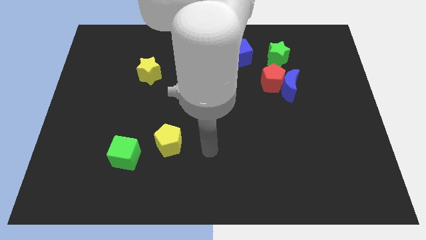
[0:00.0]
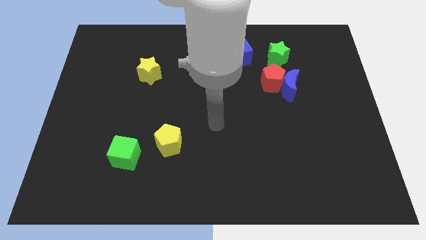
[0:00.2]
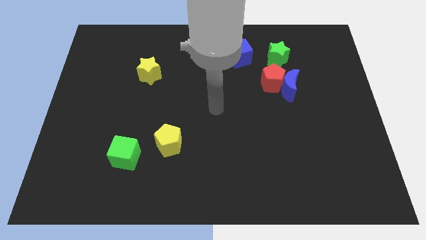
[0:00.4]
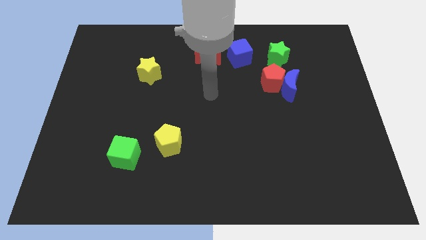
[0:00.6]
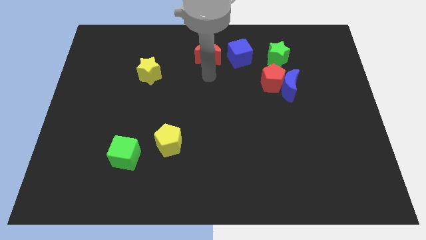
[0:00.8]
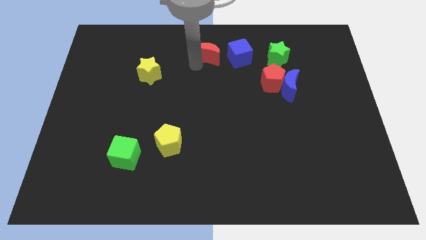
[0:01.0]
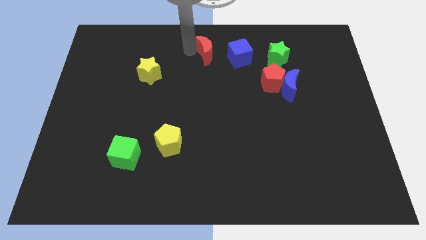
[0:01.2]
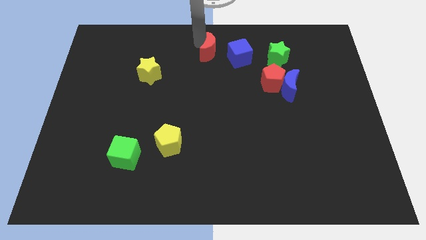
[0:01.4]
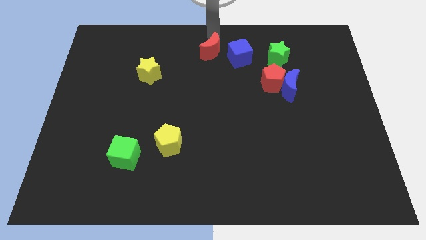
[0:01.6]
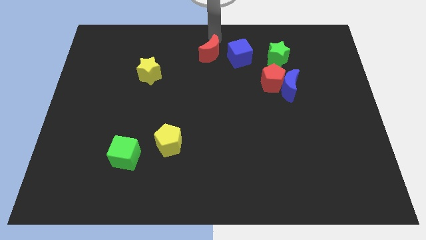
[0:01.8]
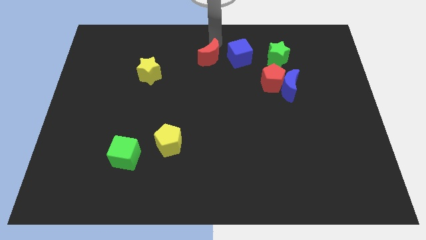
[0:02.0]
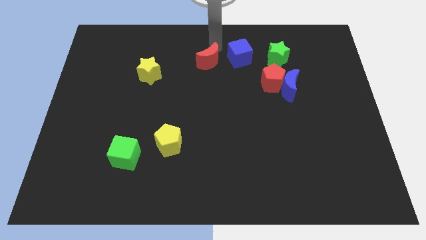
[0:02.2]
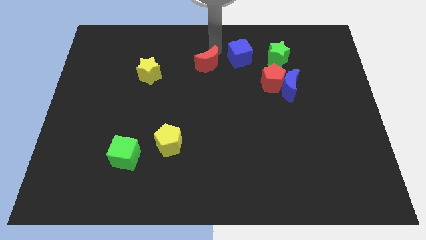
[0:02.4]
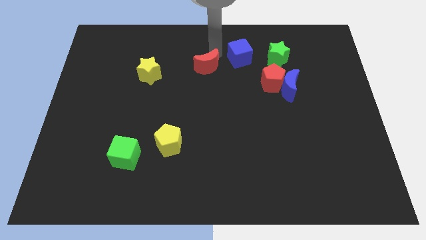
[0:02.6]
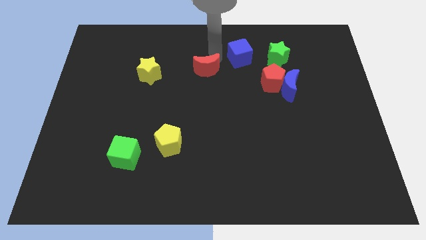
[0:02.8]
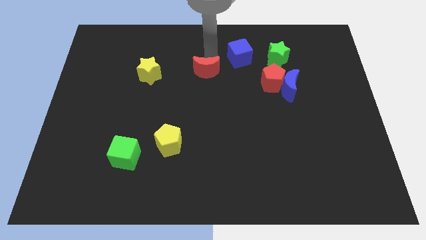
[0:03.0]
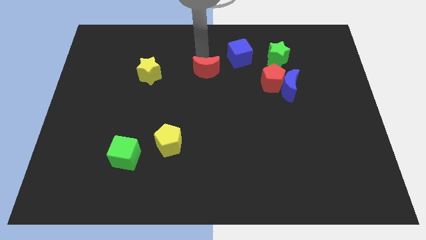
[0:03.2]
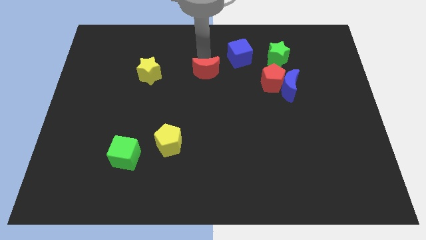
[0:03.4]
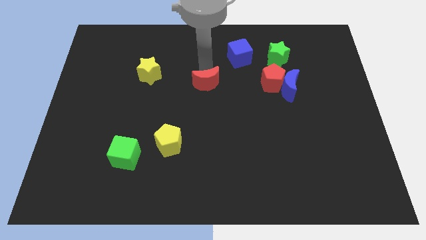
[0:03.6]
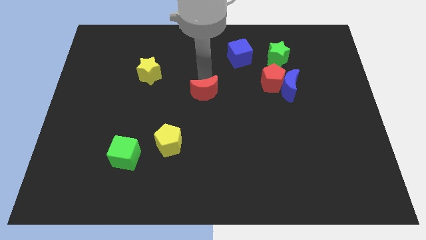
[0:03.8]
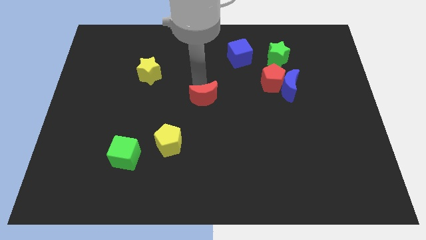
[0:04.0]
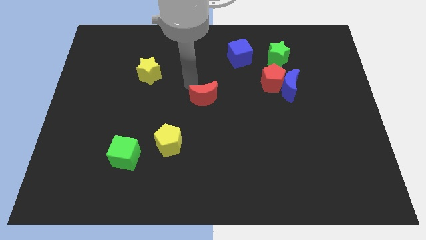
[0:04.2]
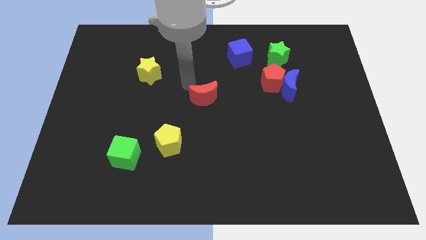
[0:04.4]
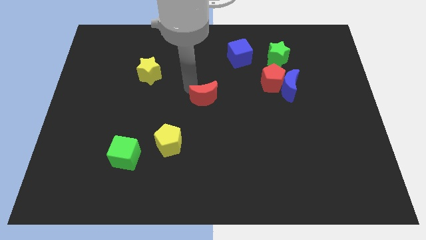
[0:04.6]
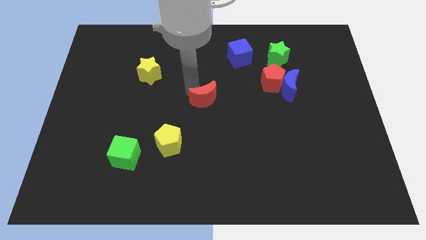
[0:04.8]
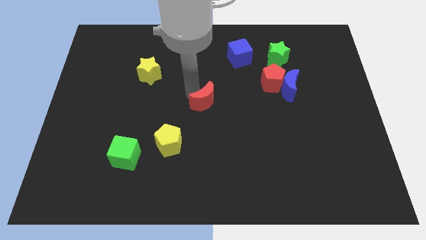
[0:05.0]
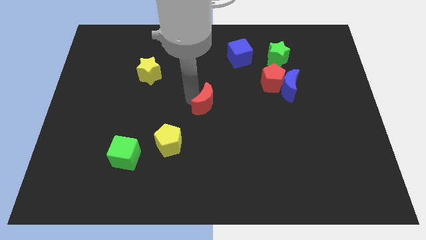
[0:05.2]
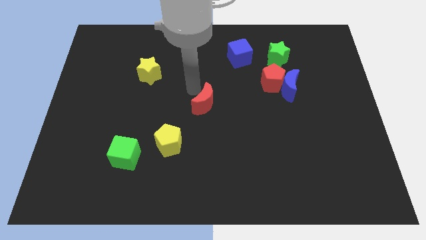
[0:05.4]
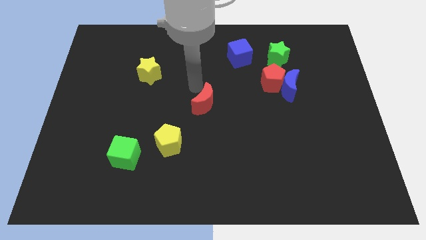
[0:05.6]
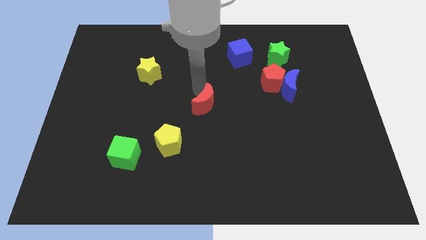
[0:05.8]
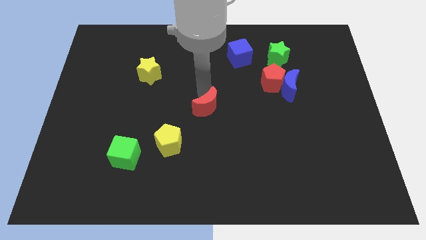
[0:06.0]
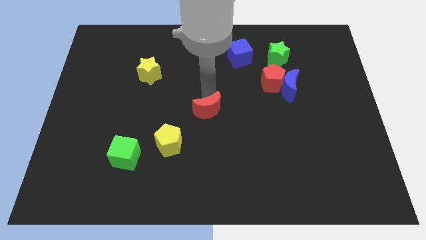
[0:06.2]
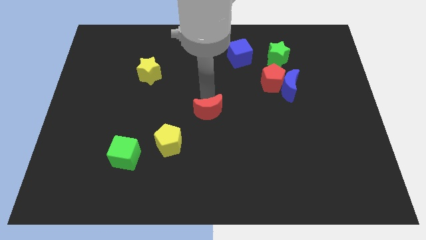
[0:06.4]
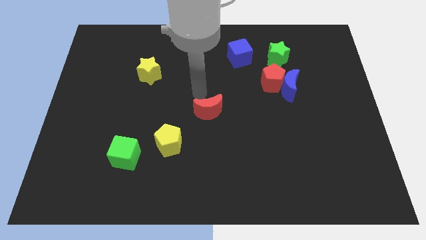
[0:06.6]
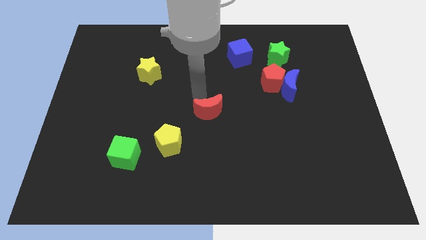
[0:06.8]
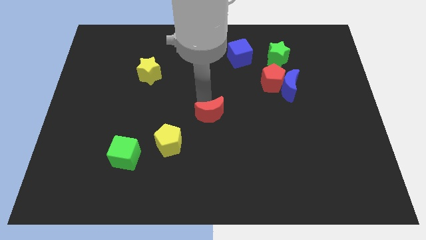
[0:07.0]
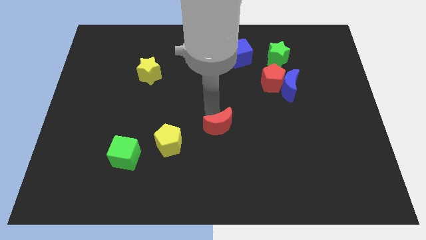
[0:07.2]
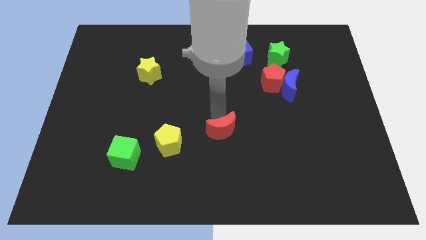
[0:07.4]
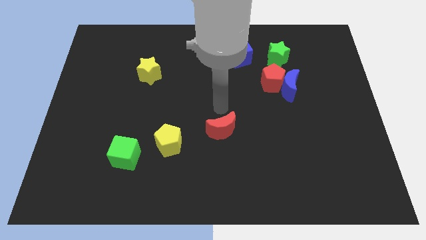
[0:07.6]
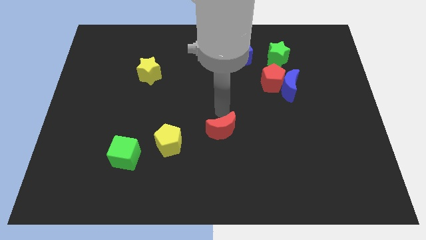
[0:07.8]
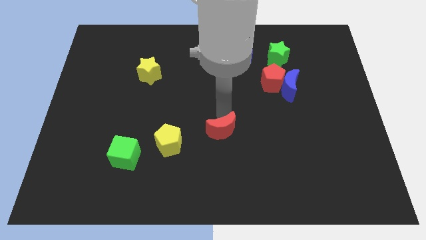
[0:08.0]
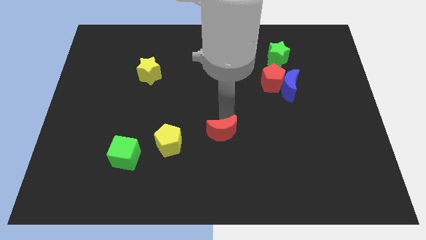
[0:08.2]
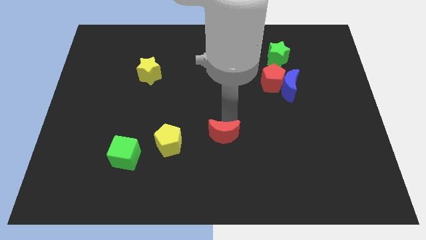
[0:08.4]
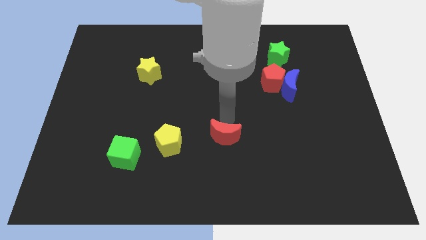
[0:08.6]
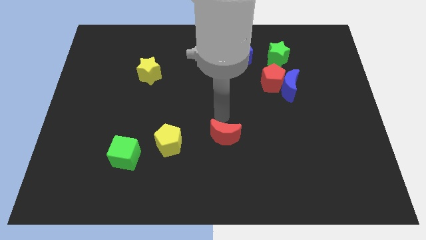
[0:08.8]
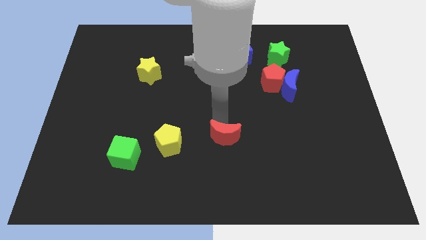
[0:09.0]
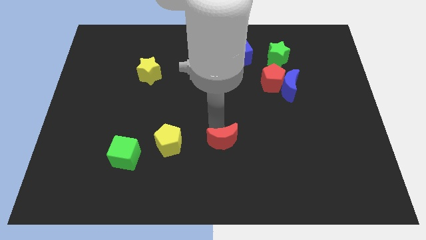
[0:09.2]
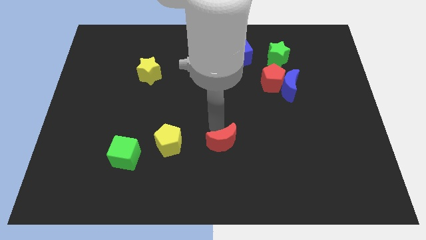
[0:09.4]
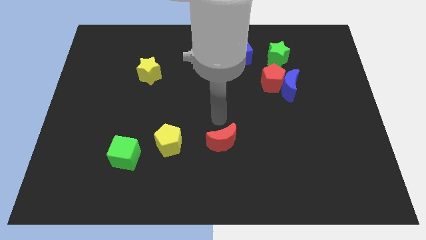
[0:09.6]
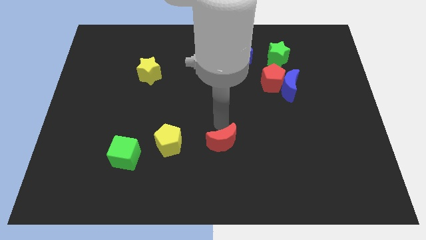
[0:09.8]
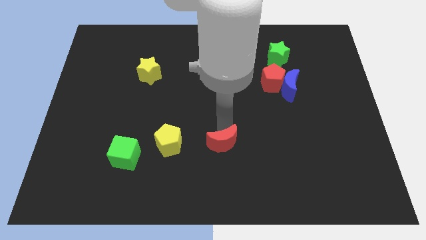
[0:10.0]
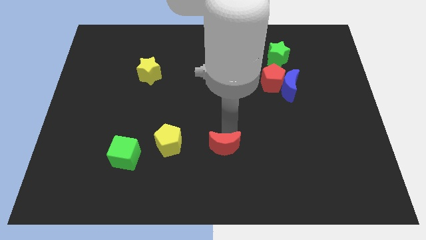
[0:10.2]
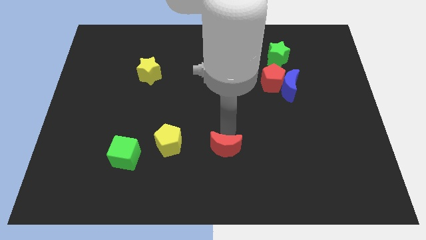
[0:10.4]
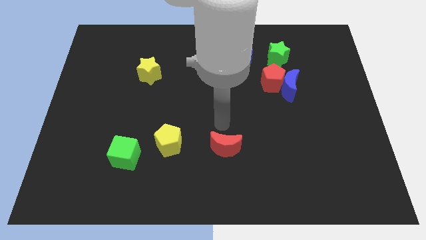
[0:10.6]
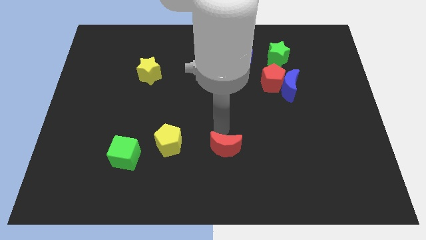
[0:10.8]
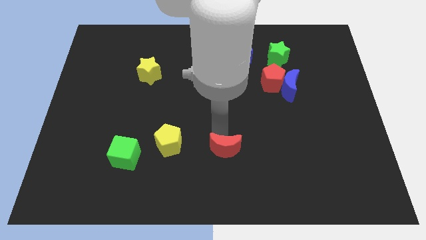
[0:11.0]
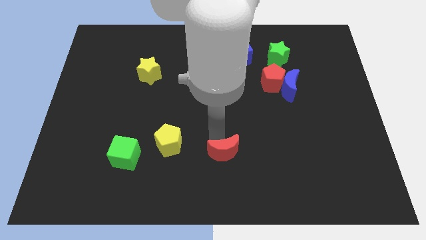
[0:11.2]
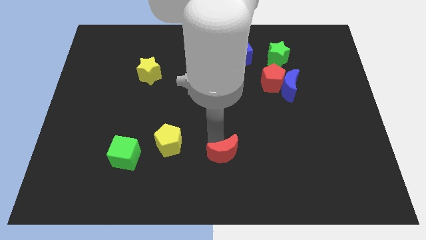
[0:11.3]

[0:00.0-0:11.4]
slide the red moon to the bottom

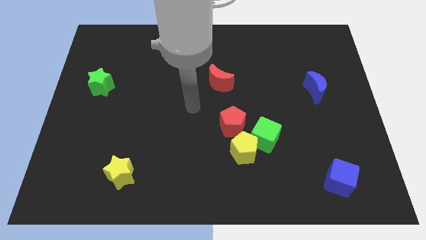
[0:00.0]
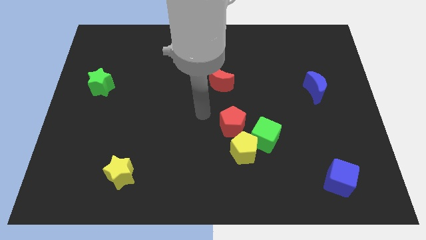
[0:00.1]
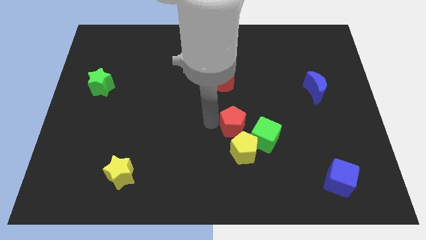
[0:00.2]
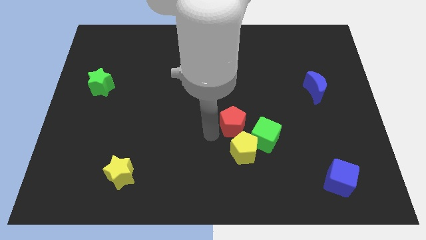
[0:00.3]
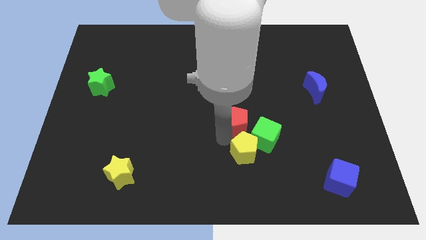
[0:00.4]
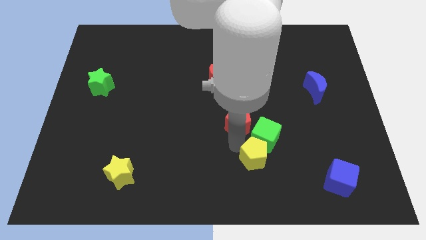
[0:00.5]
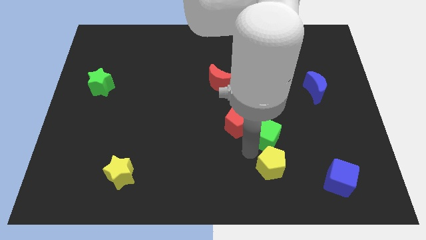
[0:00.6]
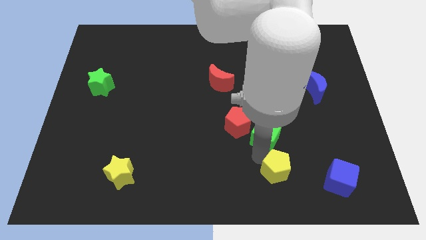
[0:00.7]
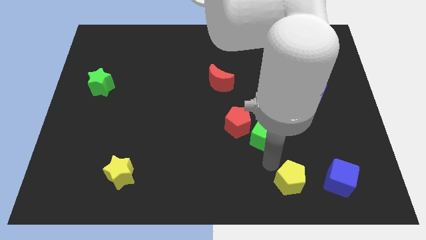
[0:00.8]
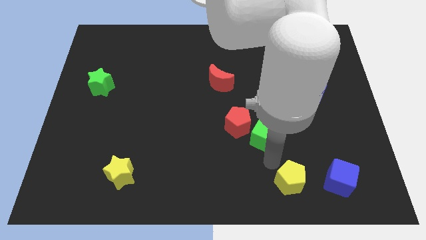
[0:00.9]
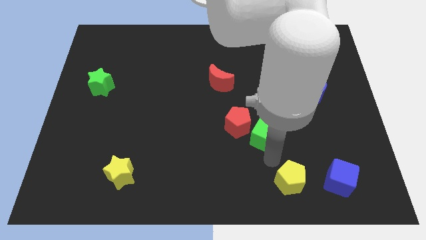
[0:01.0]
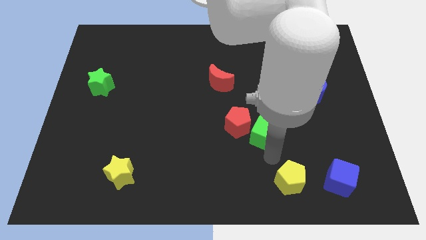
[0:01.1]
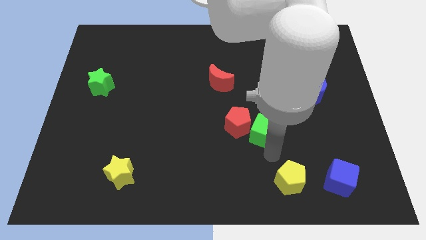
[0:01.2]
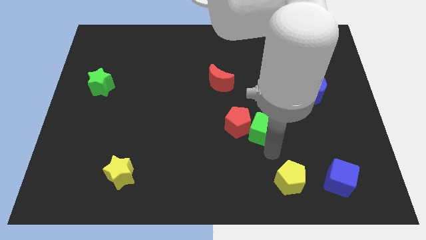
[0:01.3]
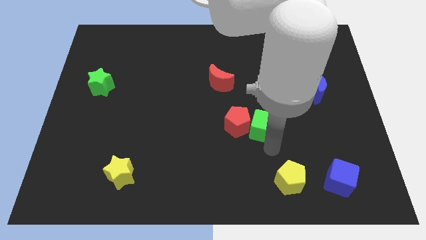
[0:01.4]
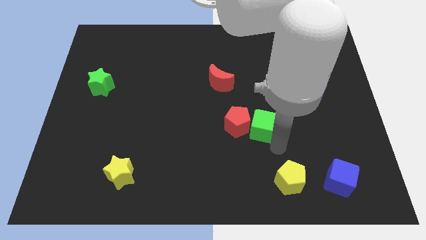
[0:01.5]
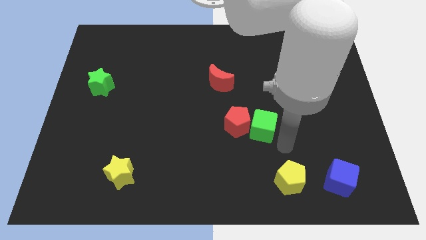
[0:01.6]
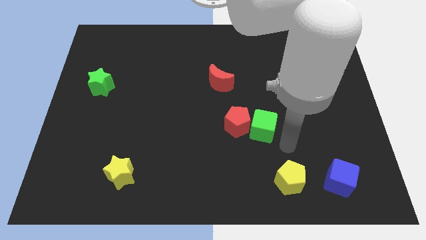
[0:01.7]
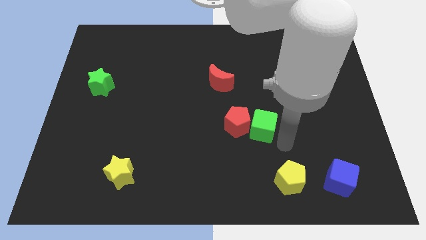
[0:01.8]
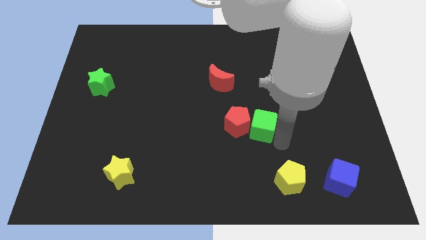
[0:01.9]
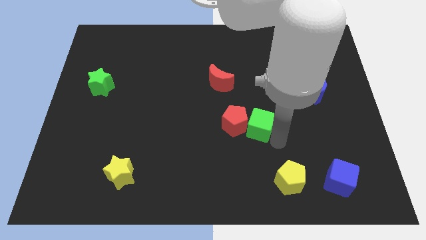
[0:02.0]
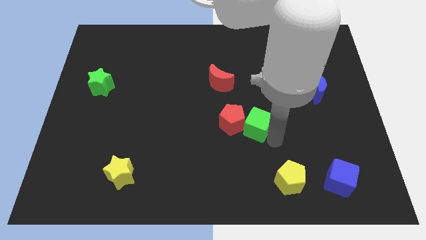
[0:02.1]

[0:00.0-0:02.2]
slide the green cube to the middle
